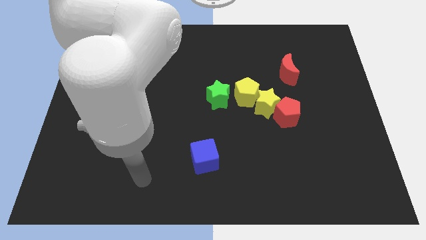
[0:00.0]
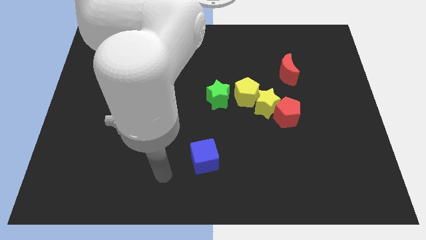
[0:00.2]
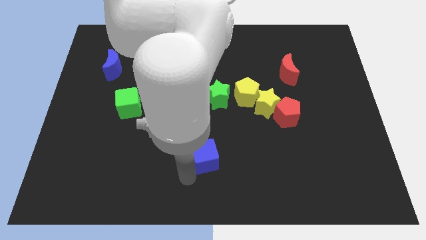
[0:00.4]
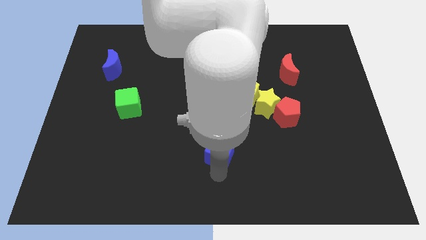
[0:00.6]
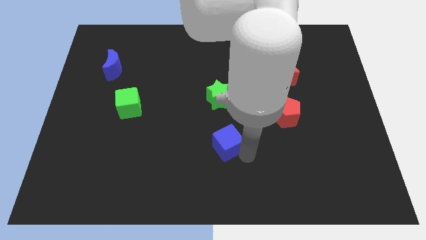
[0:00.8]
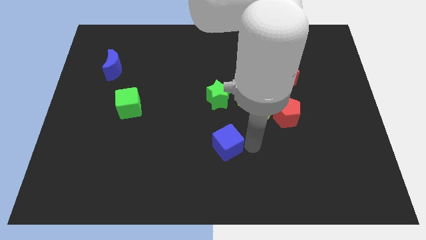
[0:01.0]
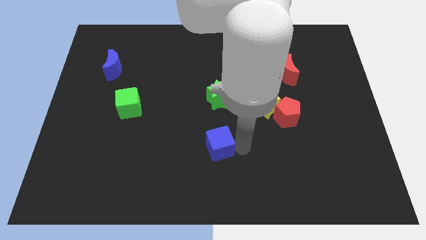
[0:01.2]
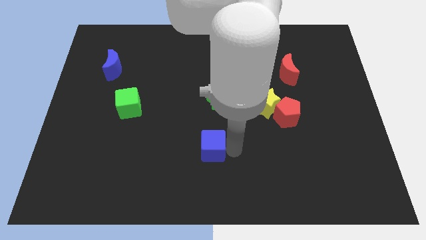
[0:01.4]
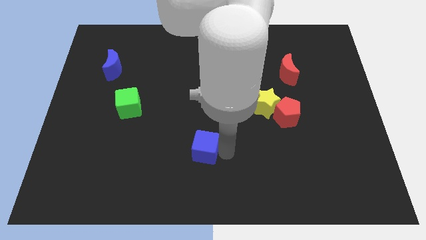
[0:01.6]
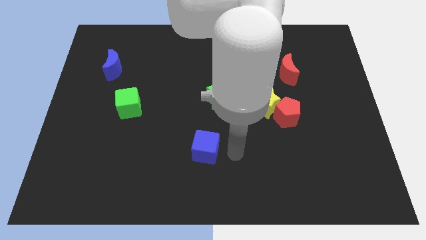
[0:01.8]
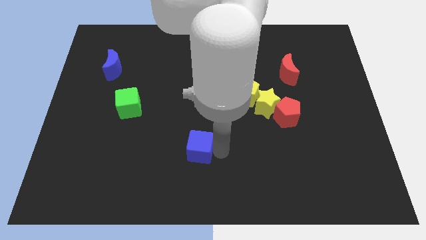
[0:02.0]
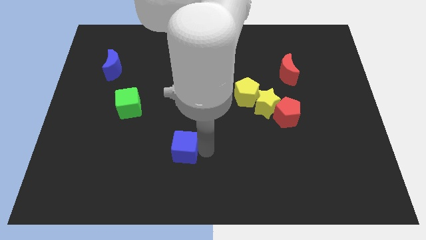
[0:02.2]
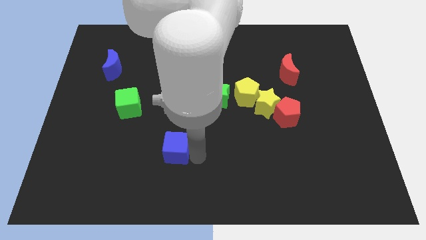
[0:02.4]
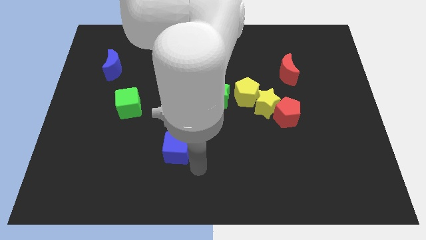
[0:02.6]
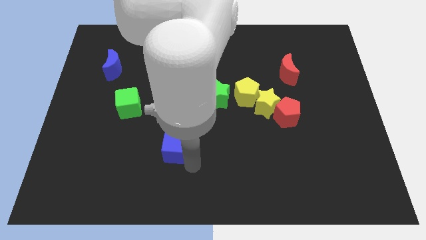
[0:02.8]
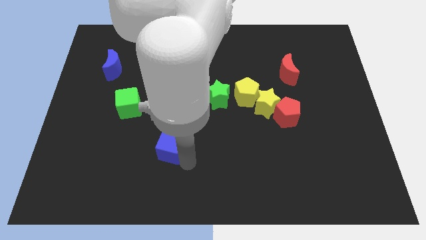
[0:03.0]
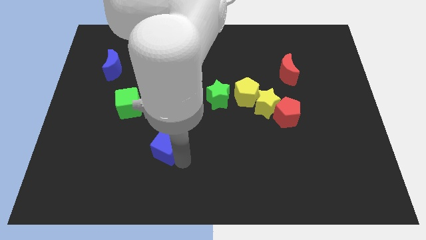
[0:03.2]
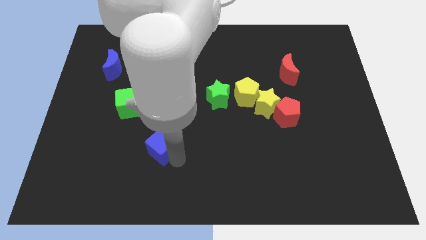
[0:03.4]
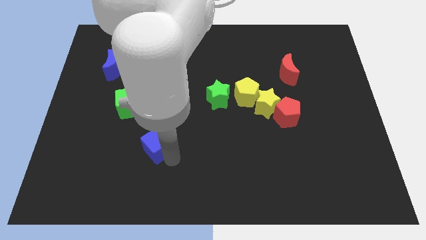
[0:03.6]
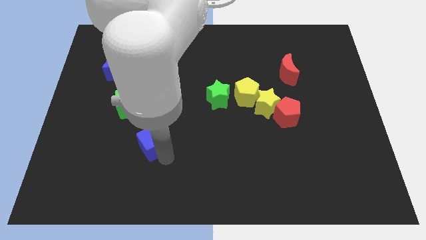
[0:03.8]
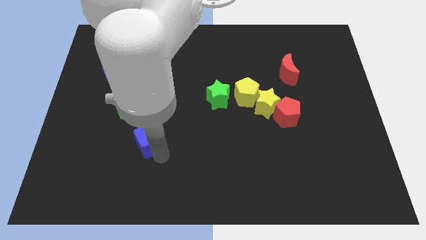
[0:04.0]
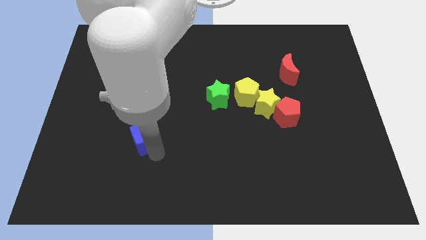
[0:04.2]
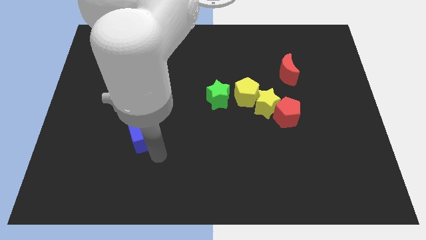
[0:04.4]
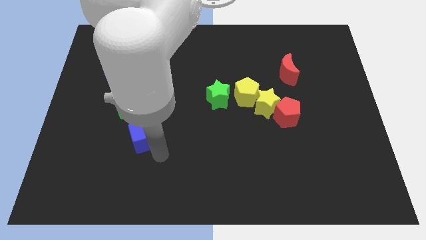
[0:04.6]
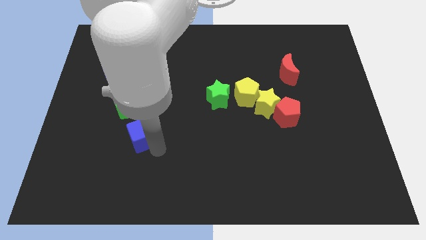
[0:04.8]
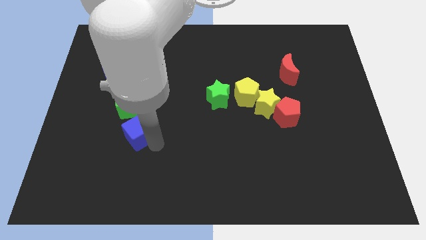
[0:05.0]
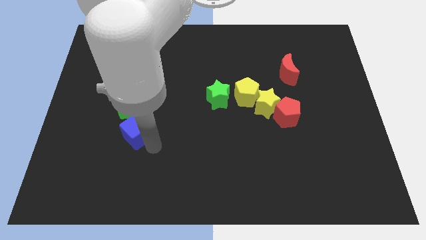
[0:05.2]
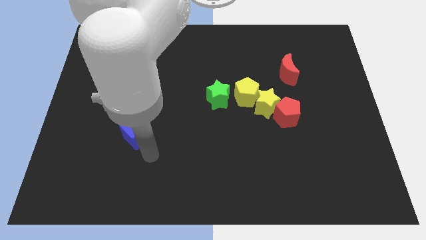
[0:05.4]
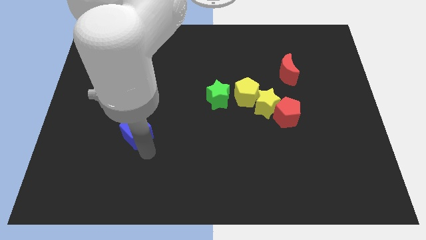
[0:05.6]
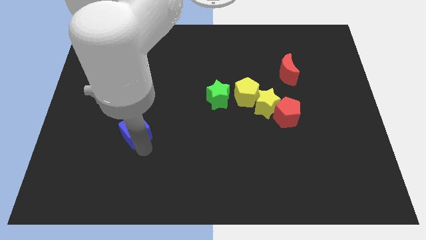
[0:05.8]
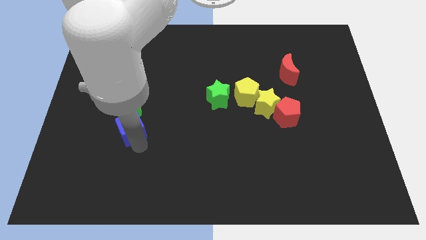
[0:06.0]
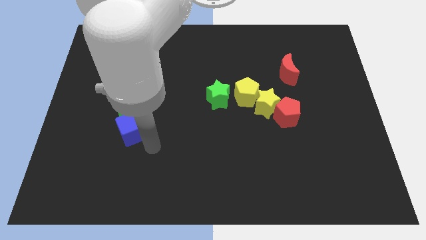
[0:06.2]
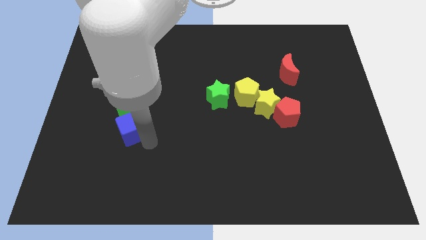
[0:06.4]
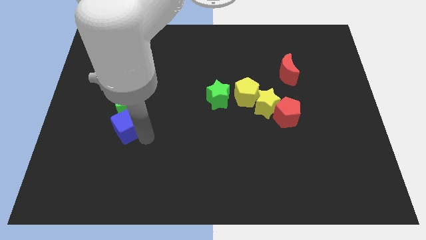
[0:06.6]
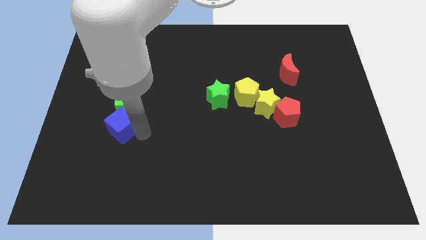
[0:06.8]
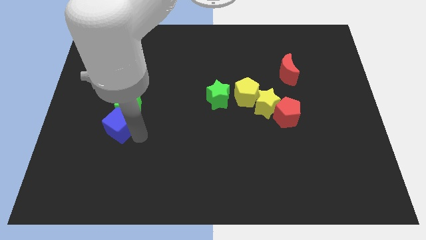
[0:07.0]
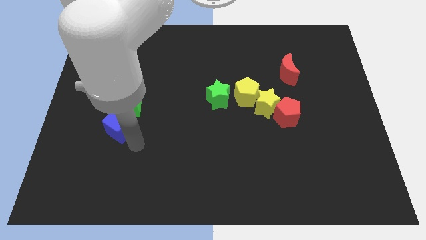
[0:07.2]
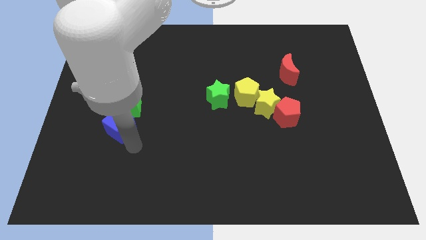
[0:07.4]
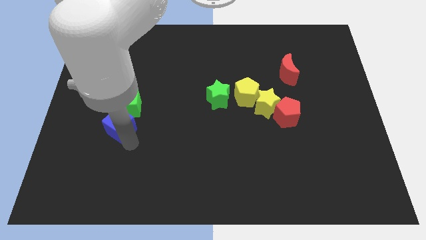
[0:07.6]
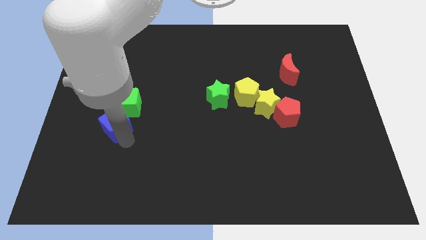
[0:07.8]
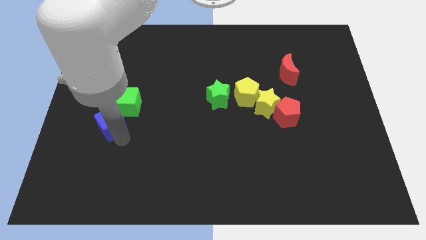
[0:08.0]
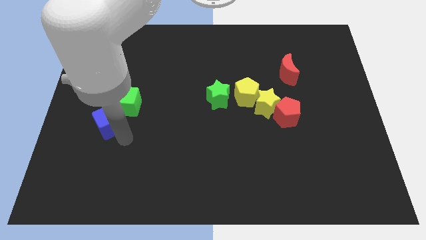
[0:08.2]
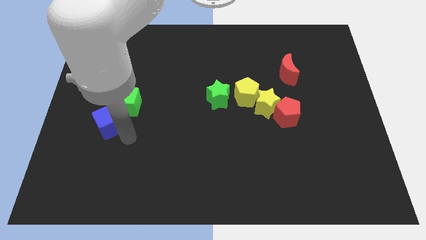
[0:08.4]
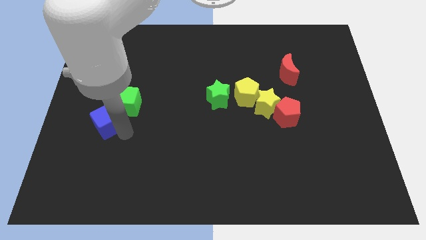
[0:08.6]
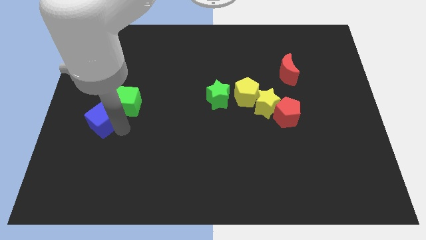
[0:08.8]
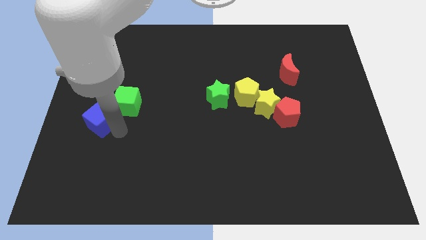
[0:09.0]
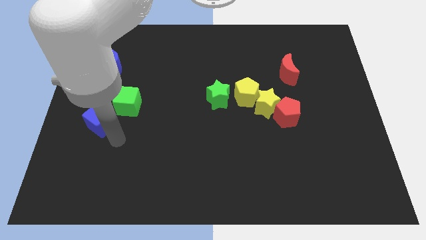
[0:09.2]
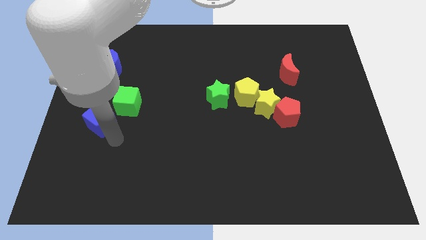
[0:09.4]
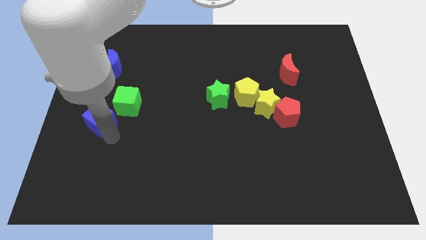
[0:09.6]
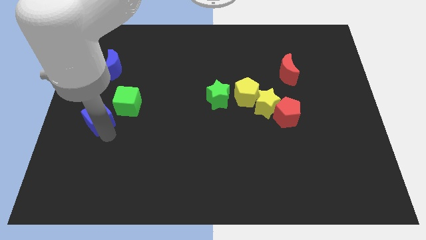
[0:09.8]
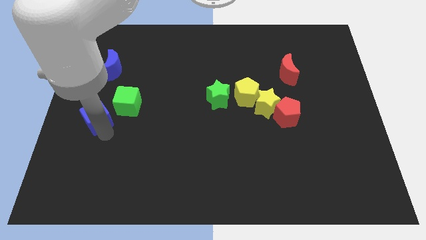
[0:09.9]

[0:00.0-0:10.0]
move the blue cube to the left side

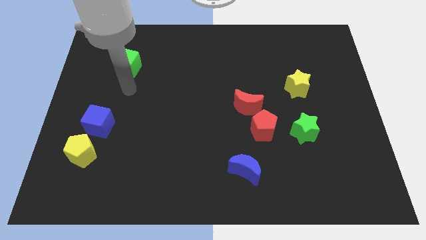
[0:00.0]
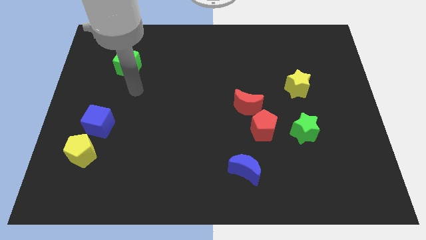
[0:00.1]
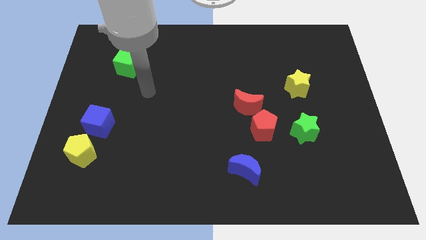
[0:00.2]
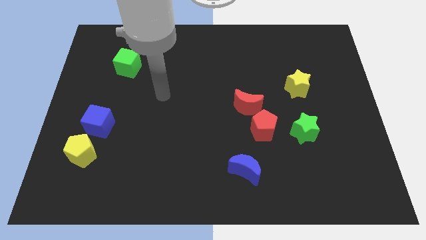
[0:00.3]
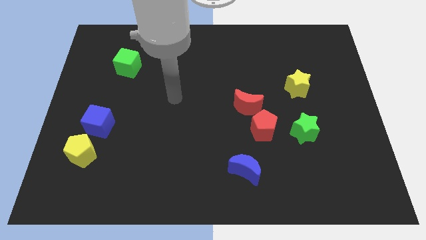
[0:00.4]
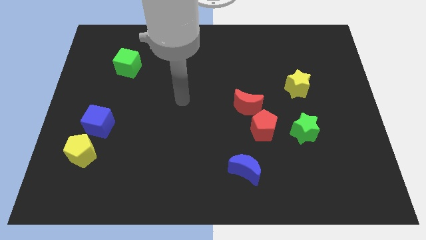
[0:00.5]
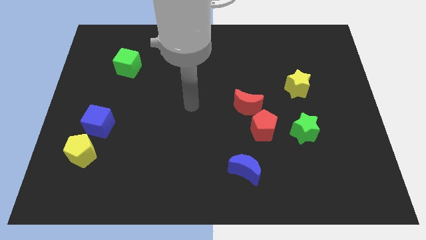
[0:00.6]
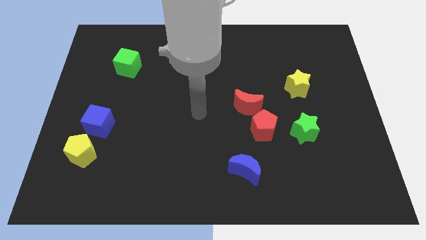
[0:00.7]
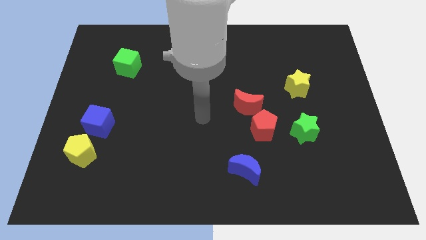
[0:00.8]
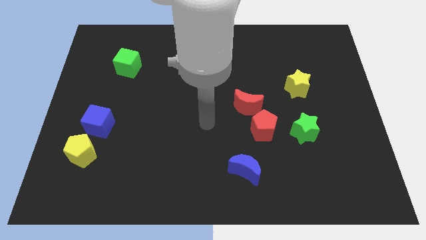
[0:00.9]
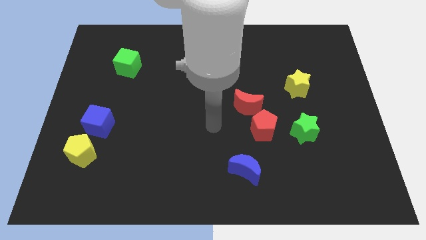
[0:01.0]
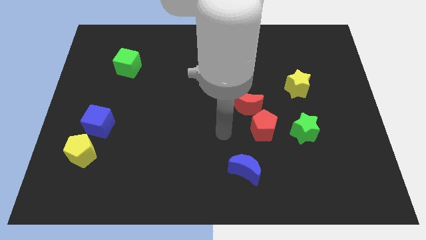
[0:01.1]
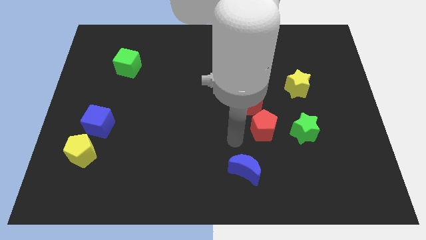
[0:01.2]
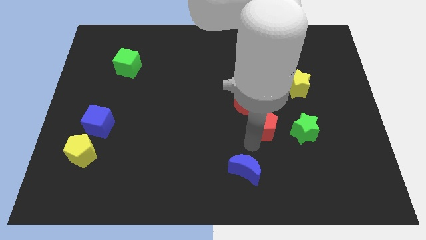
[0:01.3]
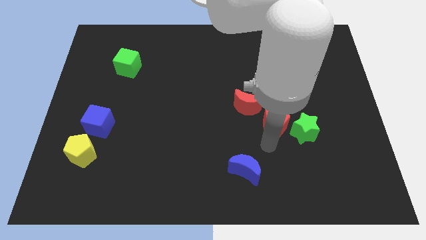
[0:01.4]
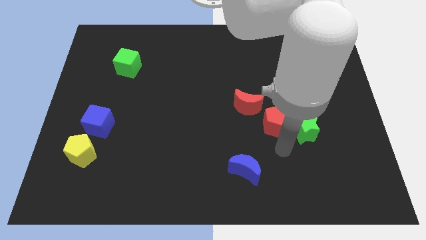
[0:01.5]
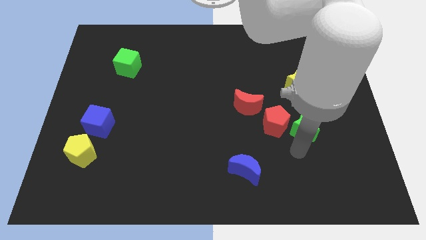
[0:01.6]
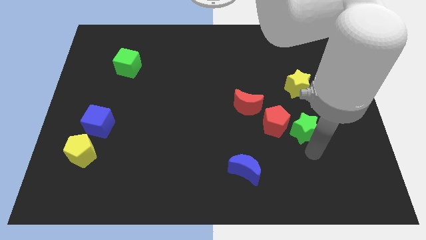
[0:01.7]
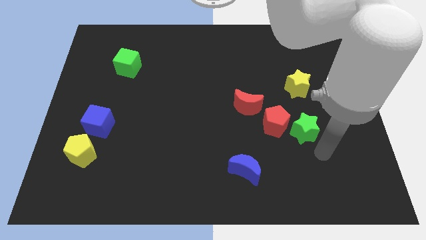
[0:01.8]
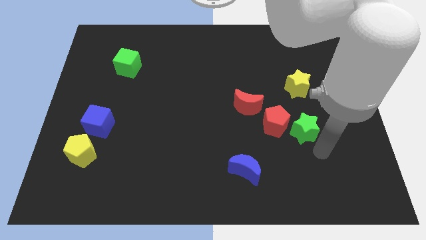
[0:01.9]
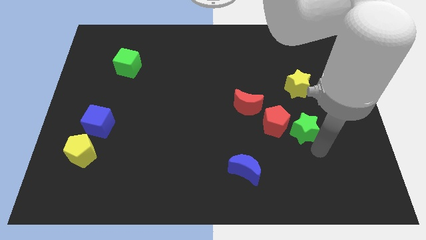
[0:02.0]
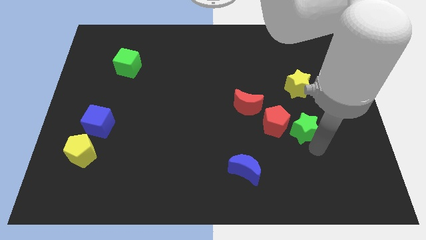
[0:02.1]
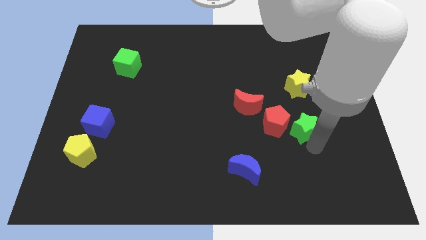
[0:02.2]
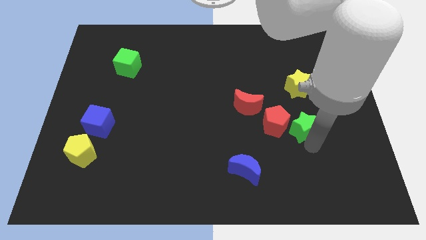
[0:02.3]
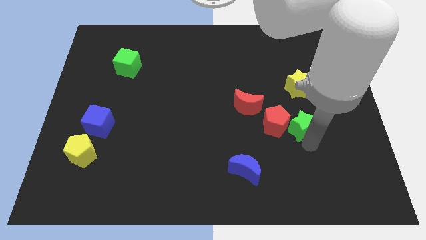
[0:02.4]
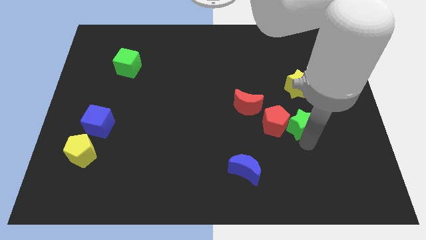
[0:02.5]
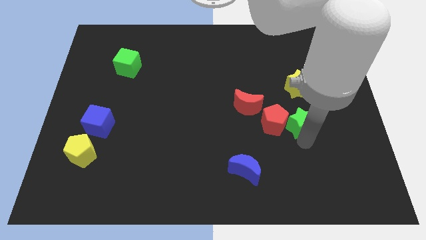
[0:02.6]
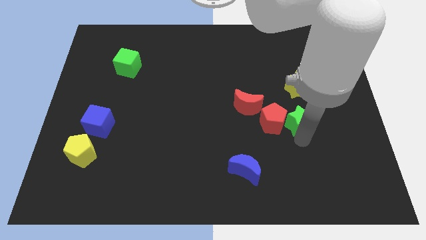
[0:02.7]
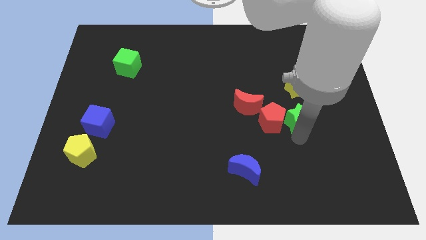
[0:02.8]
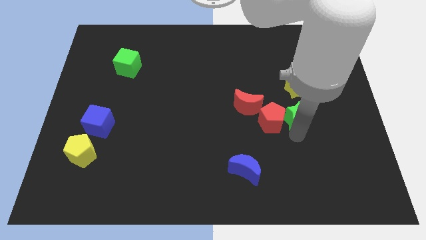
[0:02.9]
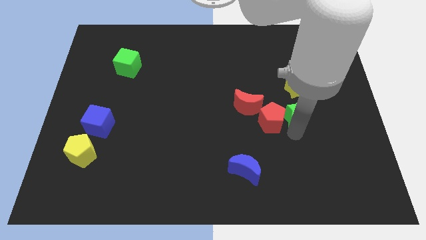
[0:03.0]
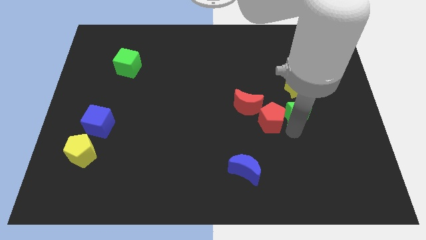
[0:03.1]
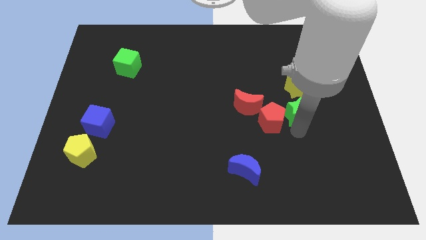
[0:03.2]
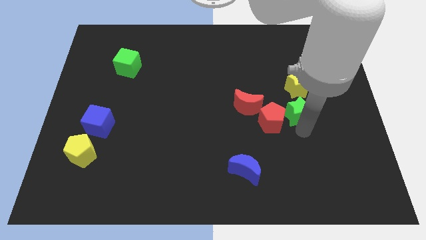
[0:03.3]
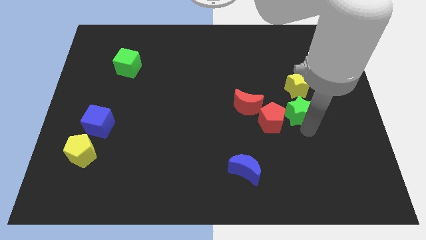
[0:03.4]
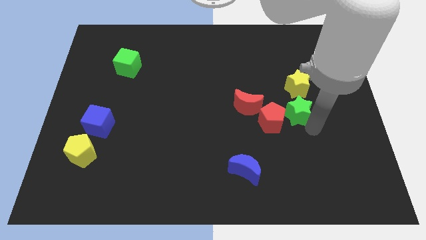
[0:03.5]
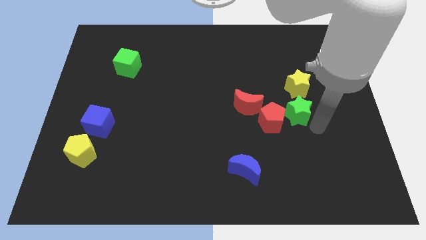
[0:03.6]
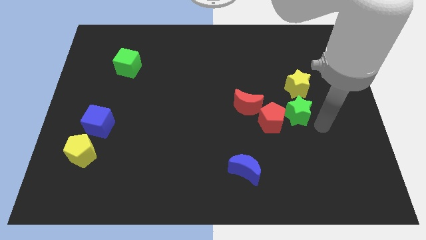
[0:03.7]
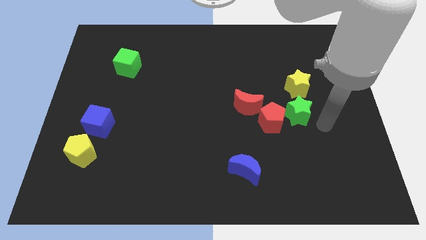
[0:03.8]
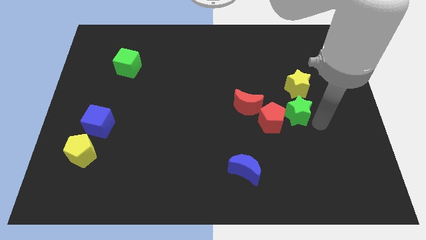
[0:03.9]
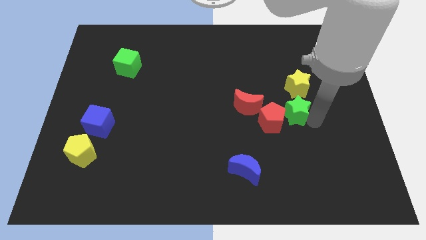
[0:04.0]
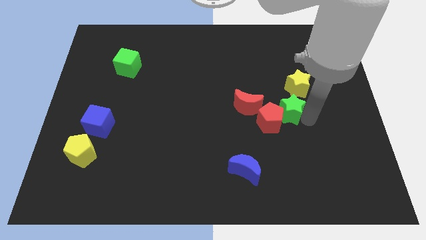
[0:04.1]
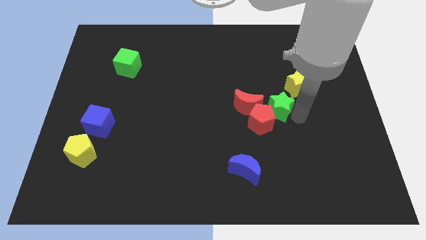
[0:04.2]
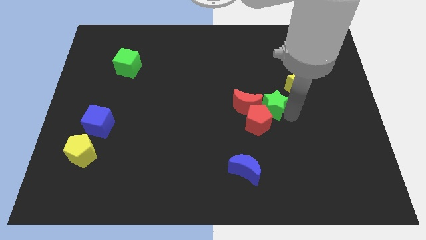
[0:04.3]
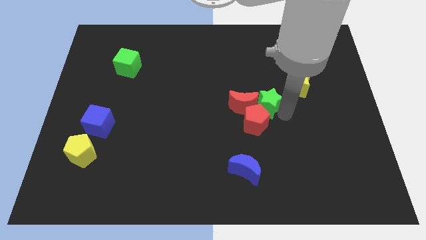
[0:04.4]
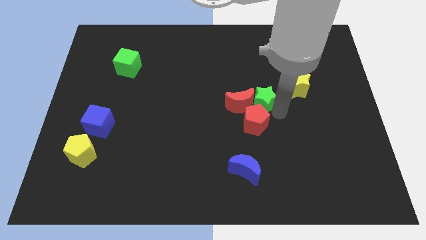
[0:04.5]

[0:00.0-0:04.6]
push the green star to the middle
